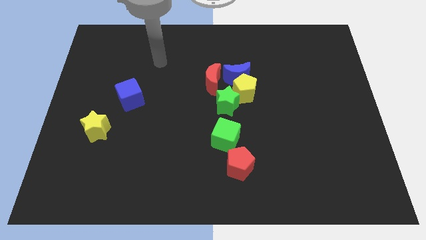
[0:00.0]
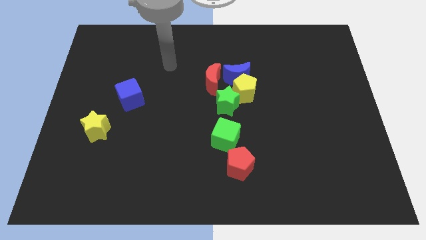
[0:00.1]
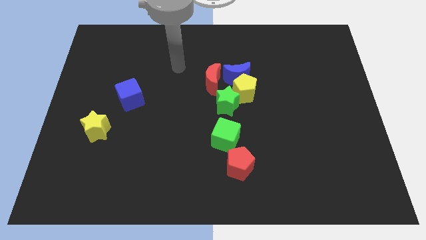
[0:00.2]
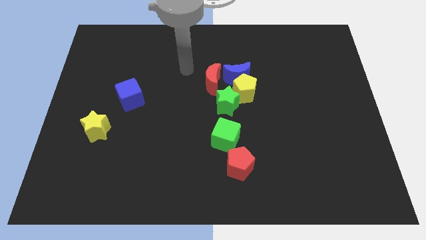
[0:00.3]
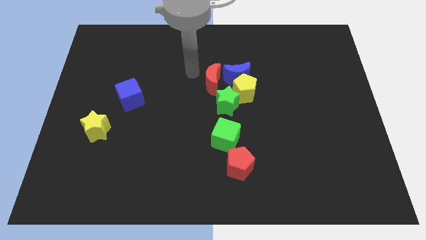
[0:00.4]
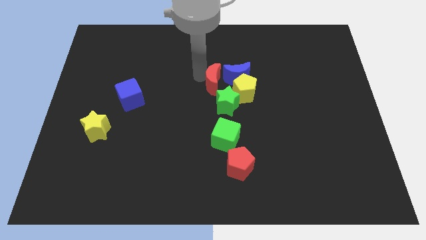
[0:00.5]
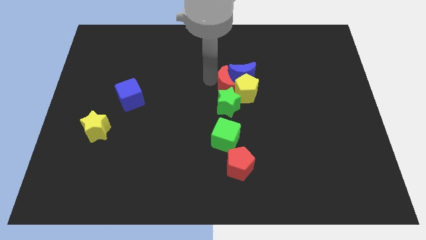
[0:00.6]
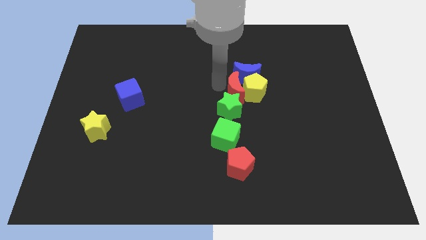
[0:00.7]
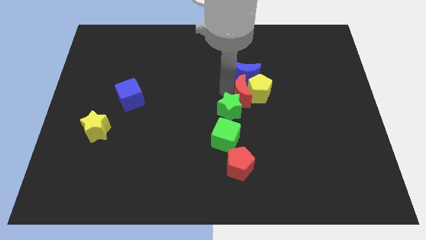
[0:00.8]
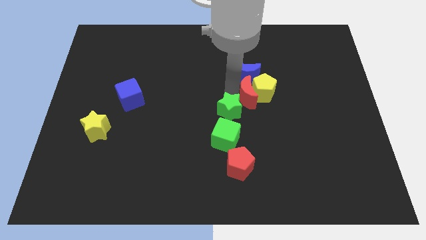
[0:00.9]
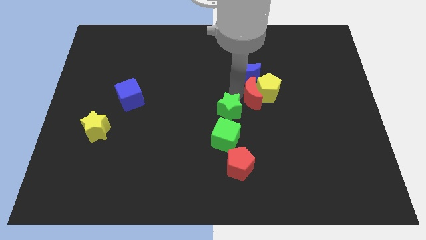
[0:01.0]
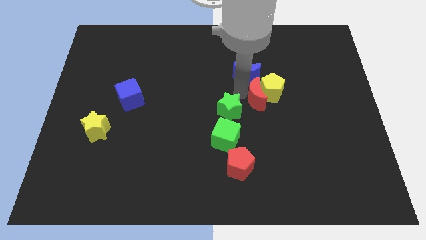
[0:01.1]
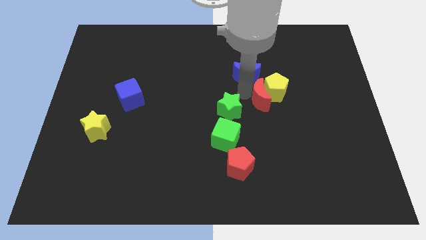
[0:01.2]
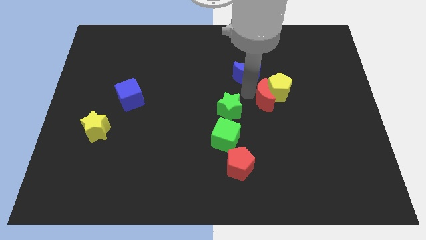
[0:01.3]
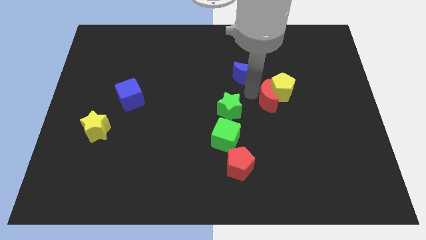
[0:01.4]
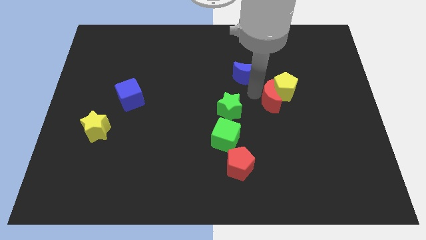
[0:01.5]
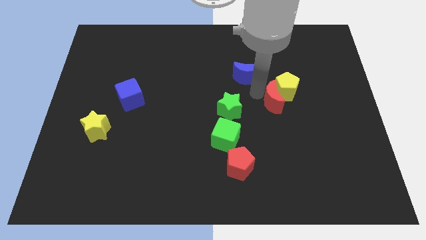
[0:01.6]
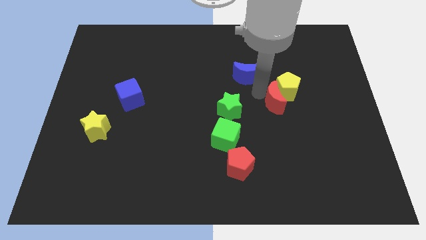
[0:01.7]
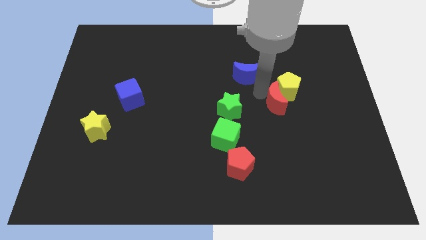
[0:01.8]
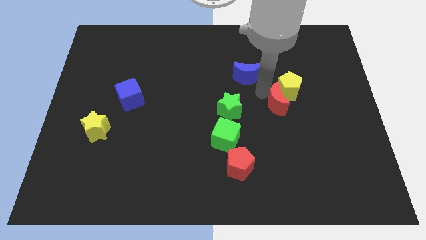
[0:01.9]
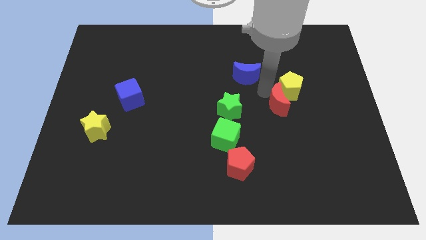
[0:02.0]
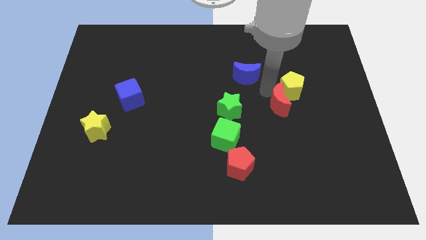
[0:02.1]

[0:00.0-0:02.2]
separate the yellow pentagon from the blue moon, green star, and red moon

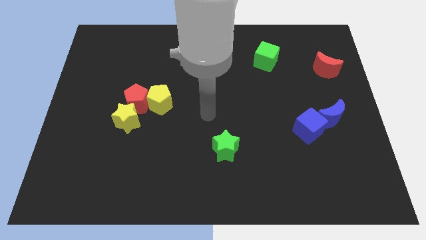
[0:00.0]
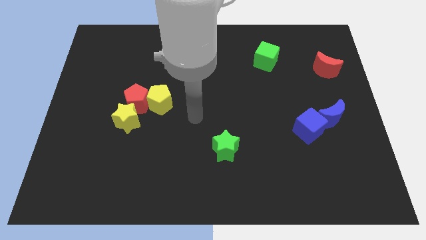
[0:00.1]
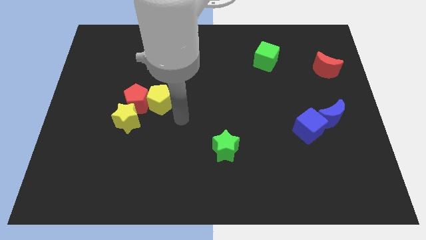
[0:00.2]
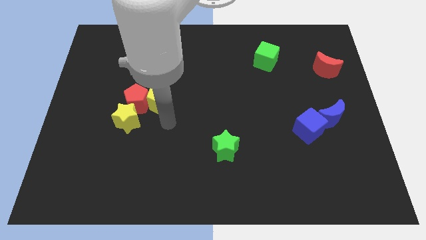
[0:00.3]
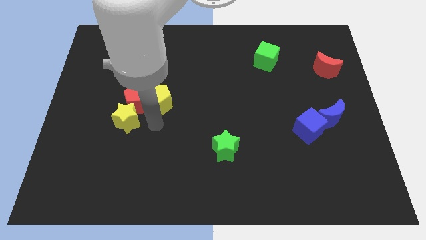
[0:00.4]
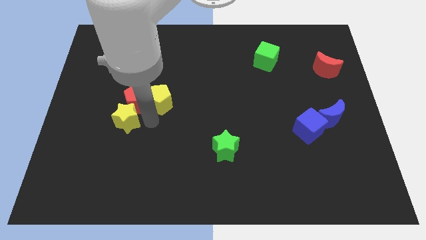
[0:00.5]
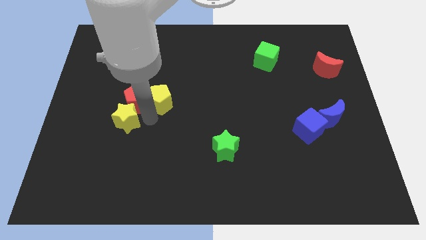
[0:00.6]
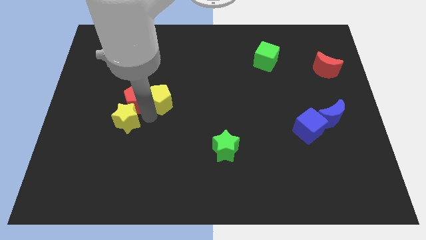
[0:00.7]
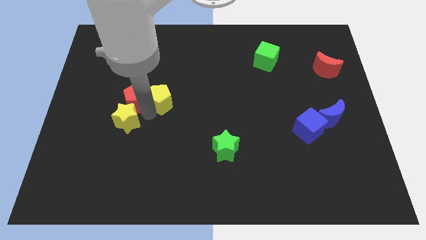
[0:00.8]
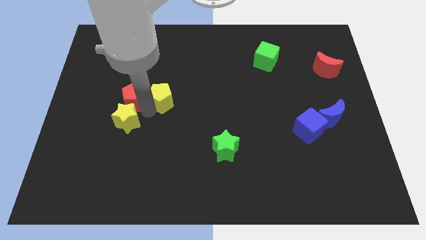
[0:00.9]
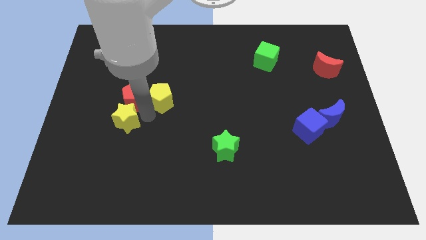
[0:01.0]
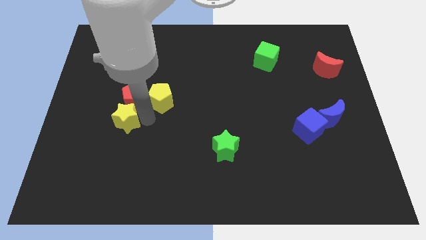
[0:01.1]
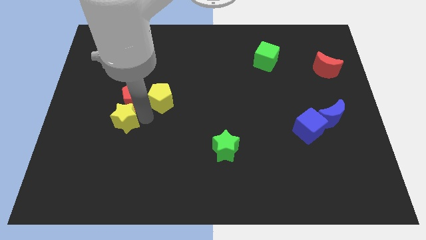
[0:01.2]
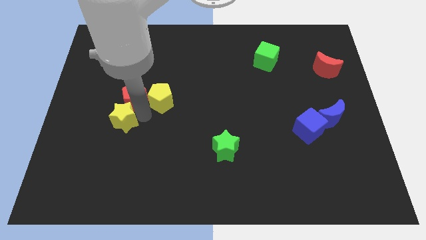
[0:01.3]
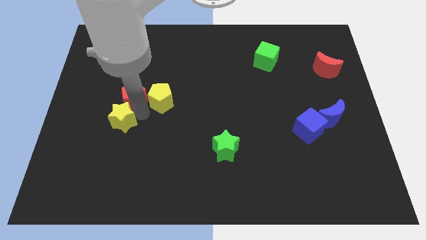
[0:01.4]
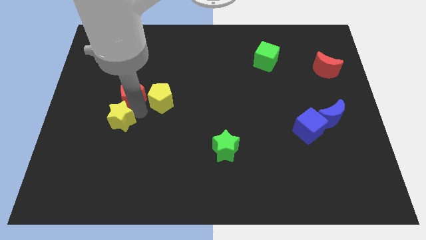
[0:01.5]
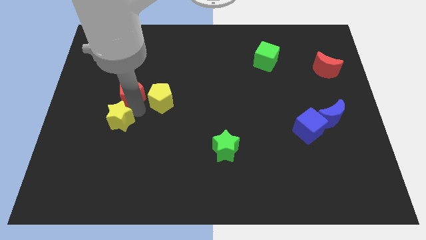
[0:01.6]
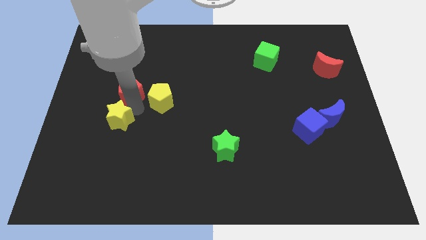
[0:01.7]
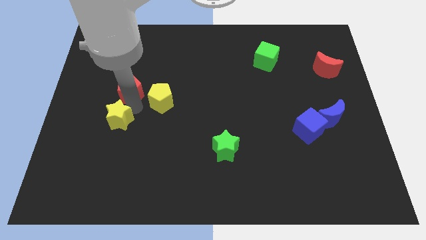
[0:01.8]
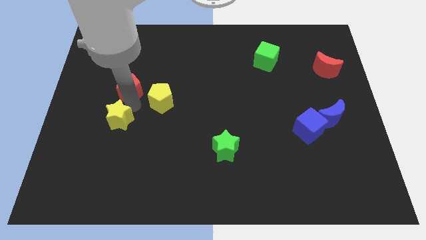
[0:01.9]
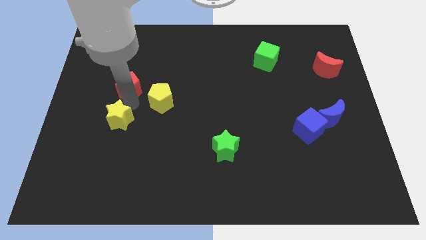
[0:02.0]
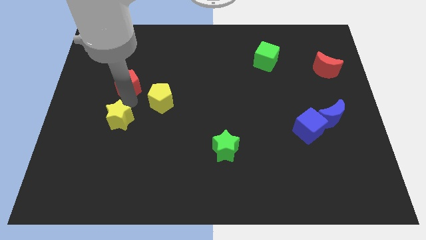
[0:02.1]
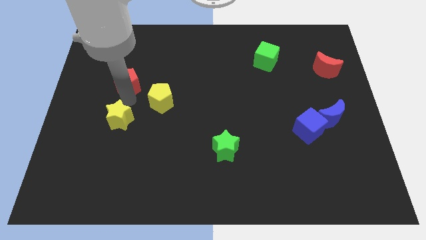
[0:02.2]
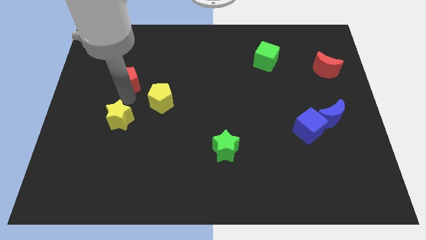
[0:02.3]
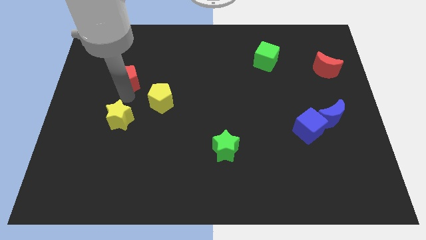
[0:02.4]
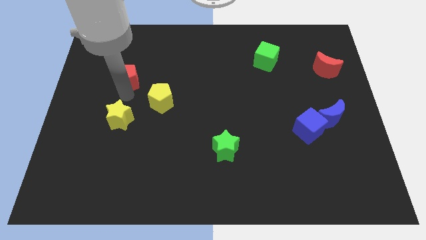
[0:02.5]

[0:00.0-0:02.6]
separate the red pentagon from the yellow pentagon and yellow star

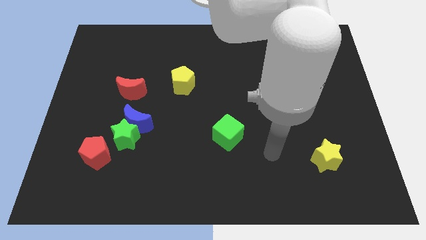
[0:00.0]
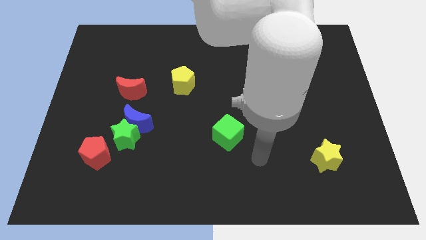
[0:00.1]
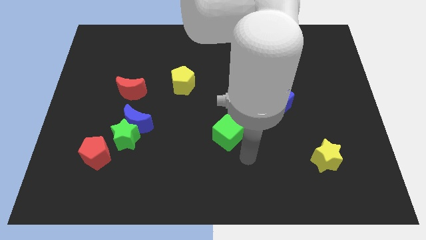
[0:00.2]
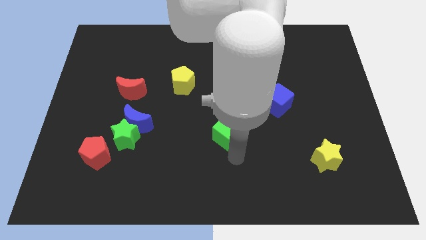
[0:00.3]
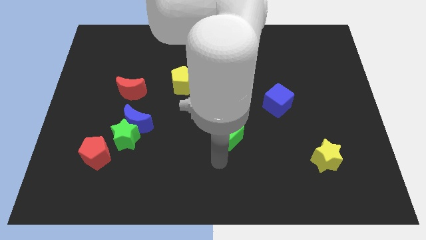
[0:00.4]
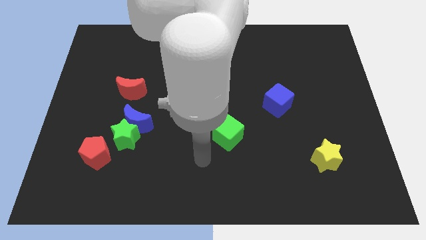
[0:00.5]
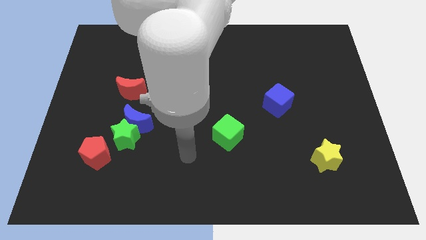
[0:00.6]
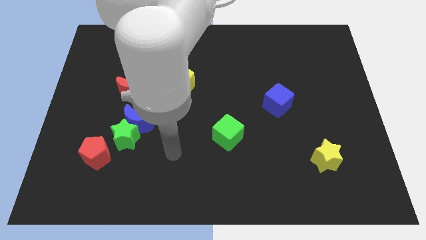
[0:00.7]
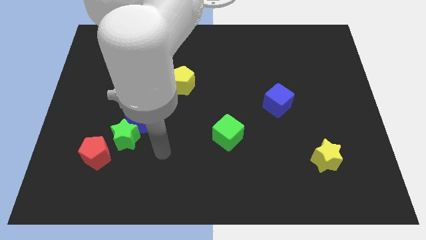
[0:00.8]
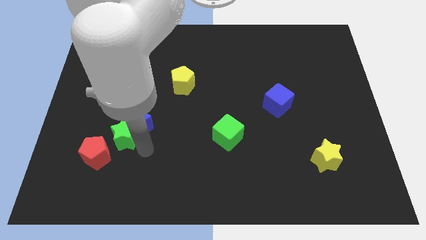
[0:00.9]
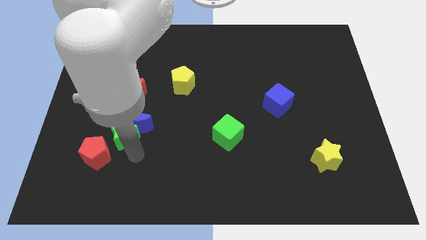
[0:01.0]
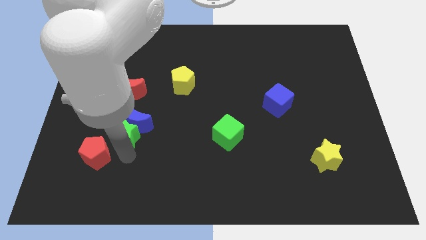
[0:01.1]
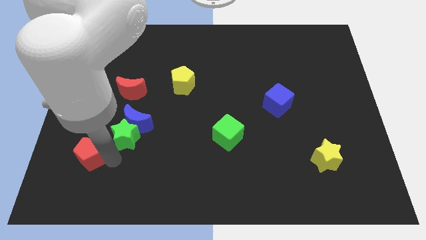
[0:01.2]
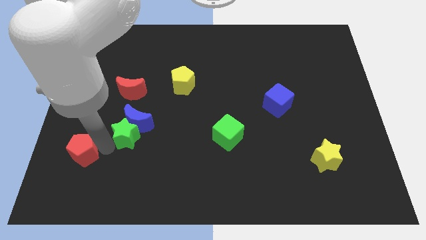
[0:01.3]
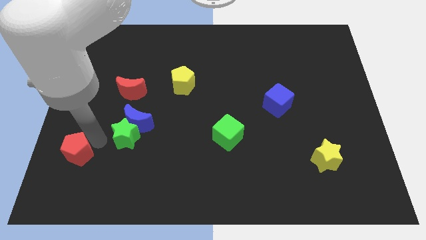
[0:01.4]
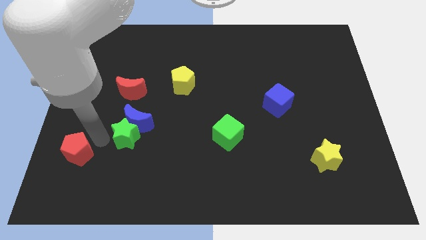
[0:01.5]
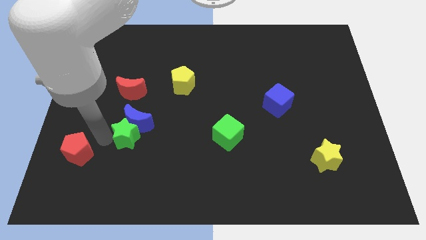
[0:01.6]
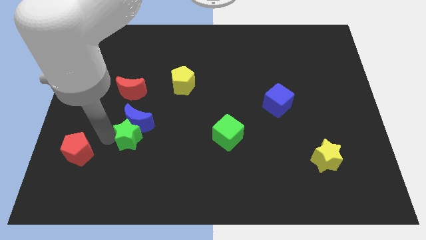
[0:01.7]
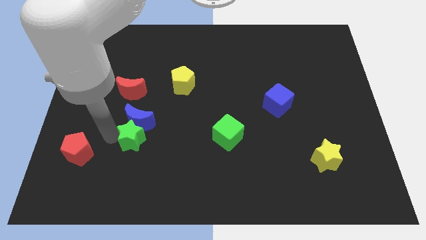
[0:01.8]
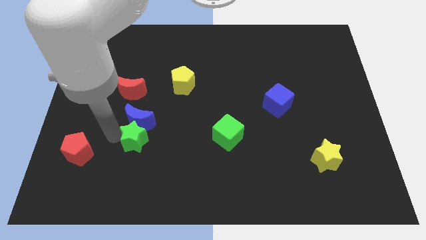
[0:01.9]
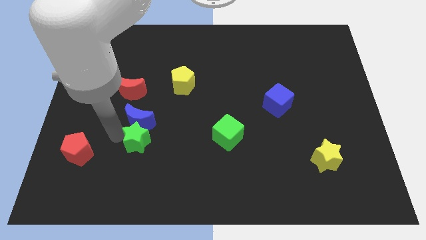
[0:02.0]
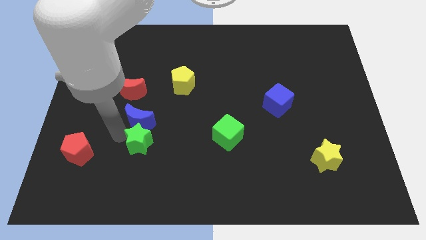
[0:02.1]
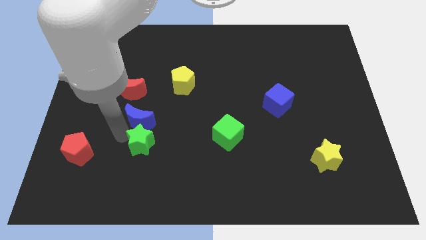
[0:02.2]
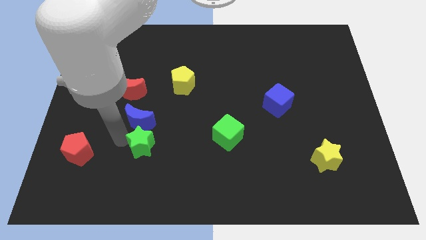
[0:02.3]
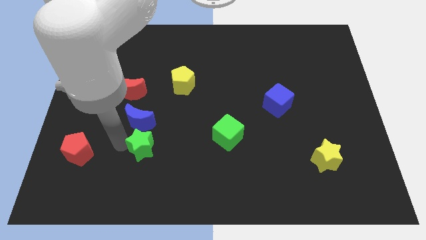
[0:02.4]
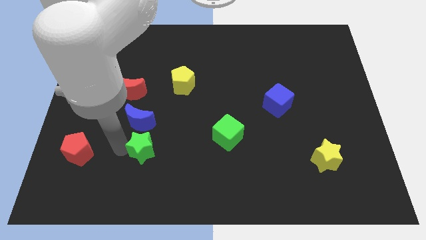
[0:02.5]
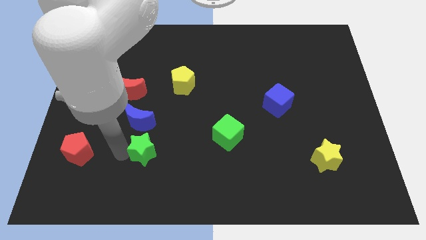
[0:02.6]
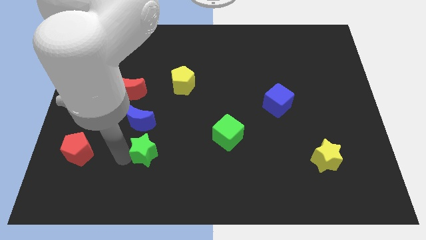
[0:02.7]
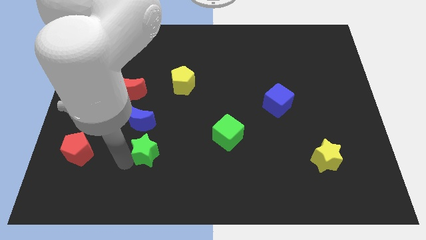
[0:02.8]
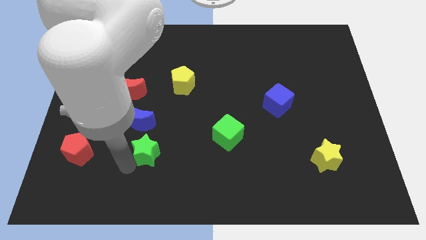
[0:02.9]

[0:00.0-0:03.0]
move the green star away from the blue moon and red pentagon

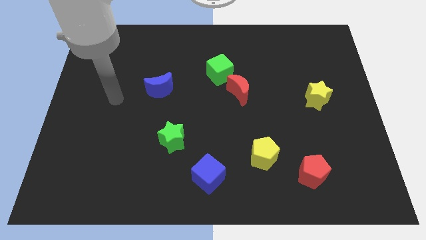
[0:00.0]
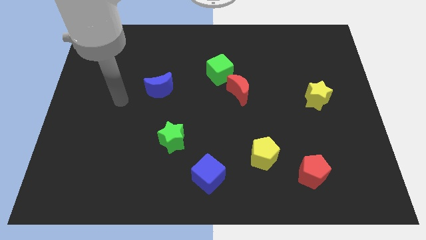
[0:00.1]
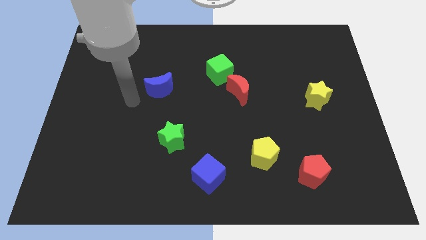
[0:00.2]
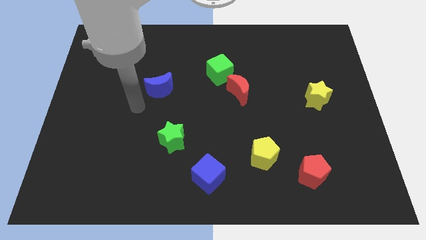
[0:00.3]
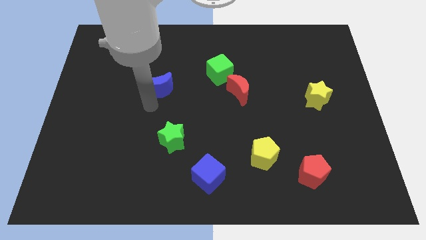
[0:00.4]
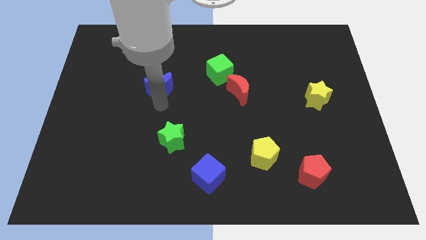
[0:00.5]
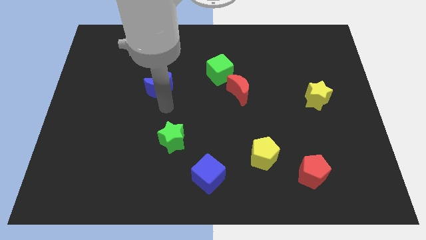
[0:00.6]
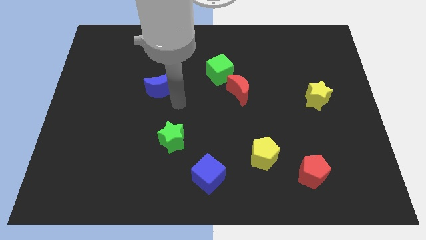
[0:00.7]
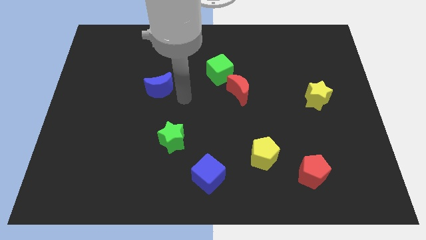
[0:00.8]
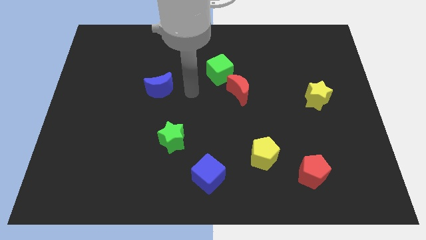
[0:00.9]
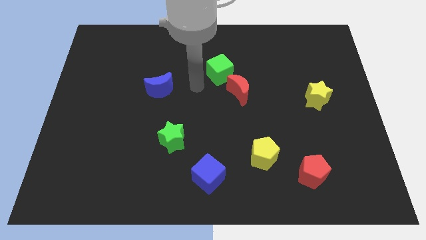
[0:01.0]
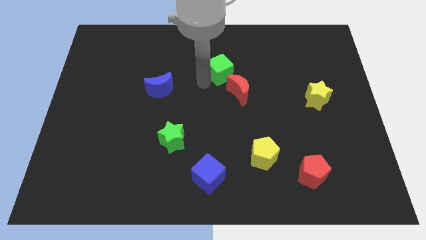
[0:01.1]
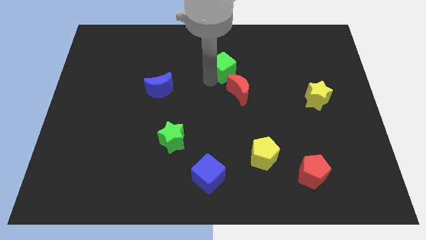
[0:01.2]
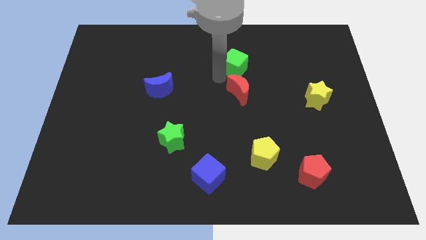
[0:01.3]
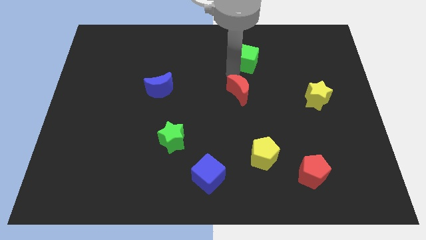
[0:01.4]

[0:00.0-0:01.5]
separate the red moon from the green cube
